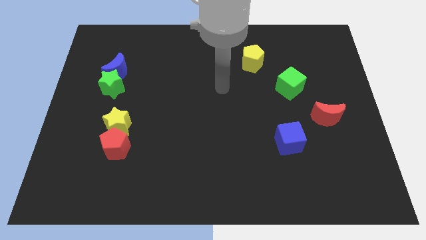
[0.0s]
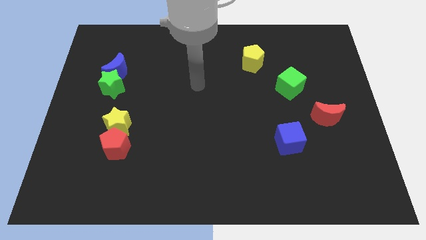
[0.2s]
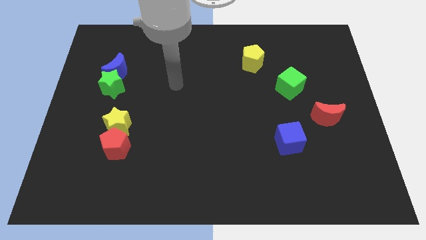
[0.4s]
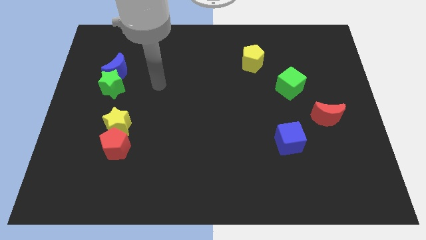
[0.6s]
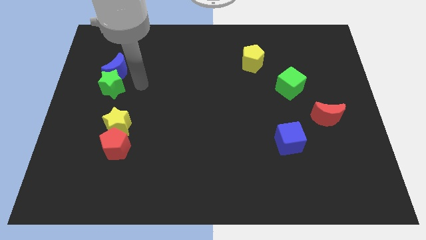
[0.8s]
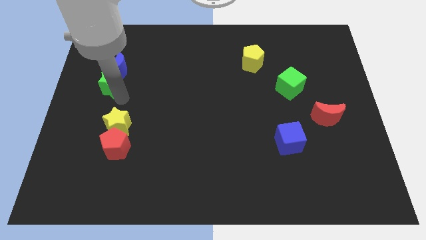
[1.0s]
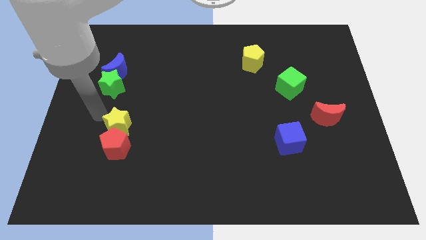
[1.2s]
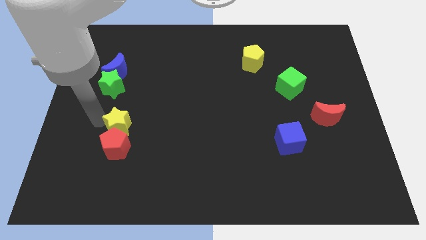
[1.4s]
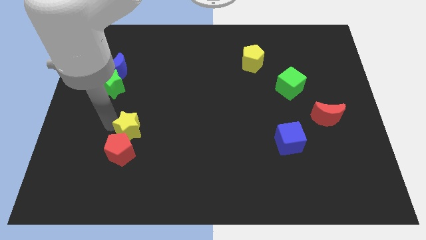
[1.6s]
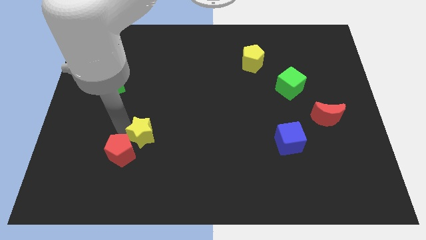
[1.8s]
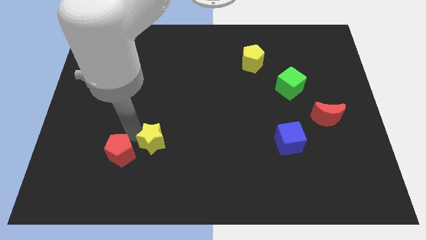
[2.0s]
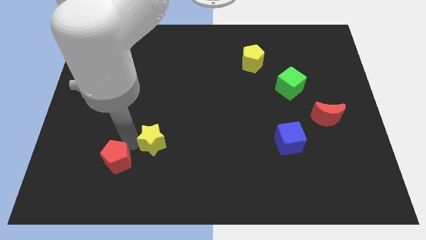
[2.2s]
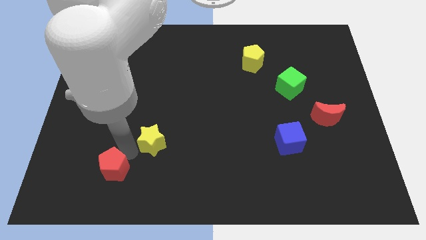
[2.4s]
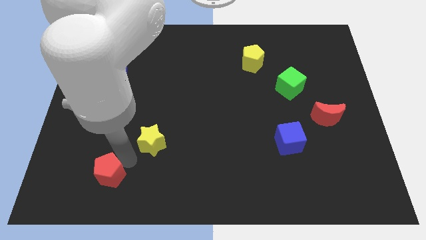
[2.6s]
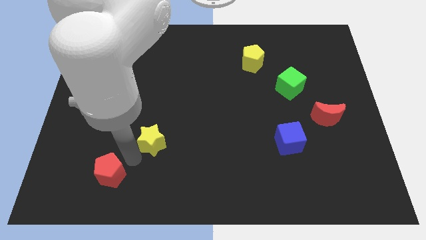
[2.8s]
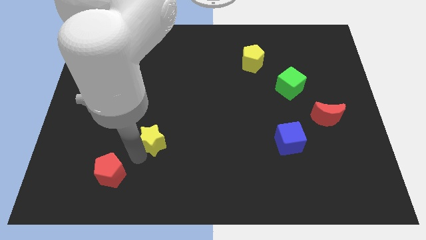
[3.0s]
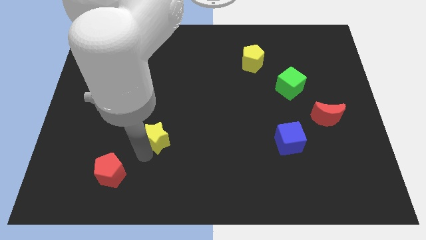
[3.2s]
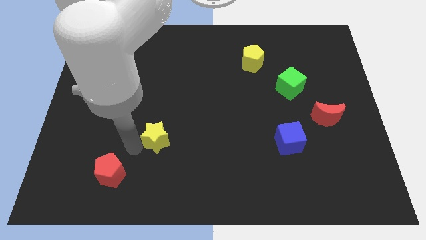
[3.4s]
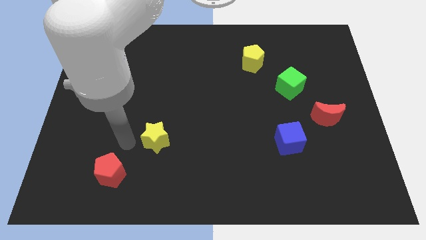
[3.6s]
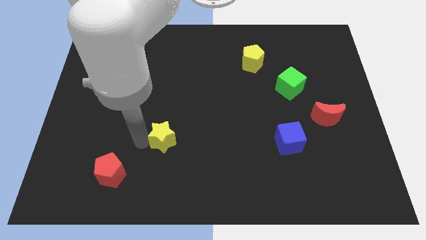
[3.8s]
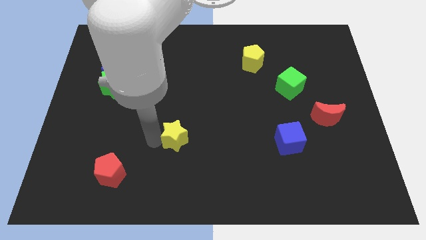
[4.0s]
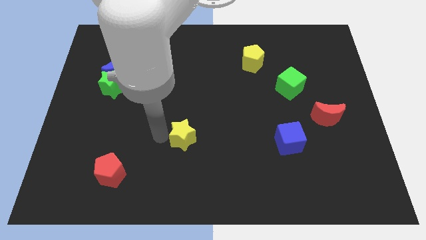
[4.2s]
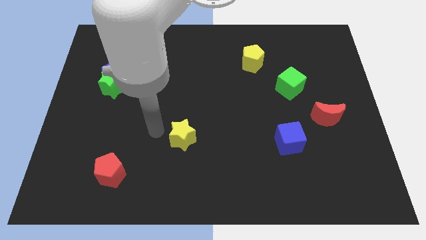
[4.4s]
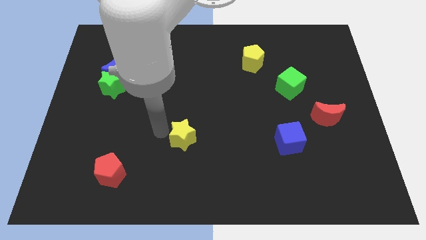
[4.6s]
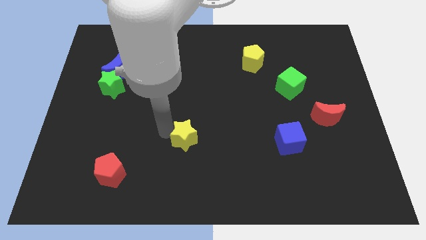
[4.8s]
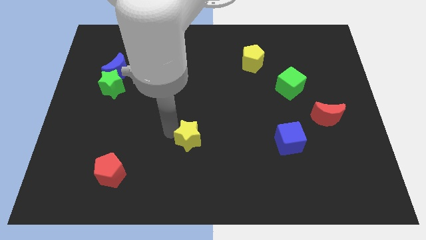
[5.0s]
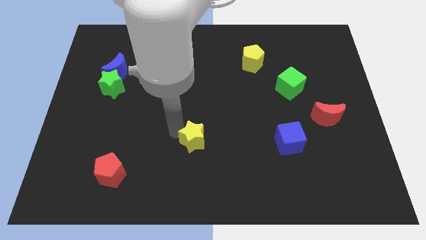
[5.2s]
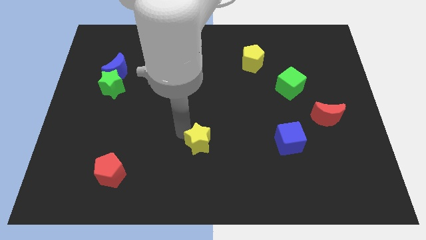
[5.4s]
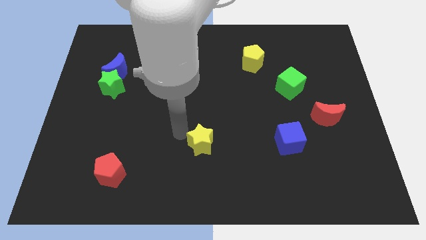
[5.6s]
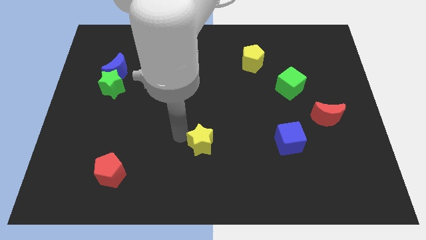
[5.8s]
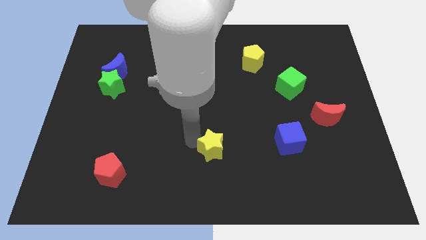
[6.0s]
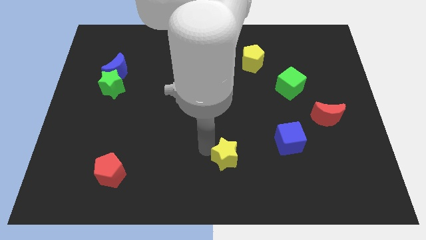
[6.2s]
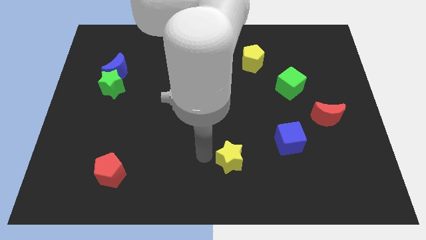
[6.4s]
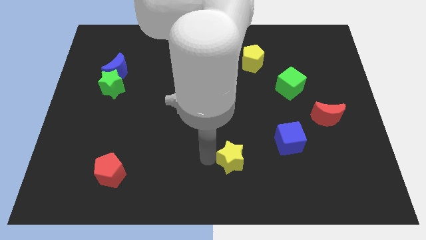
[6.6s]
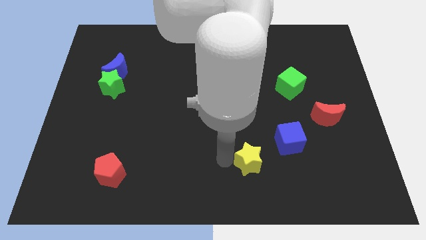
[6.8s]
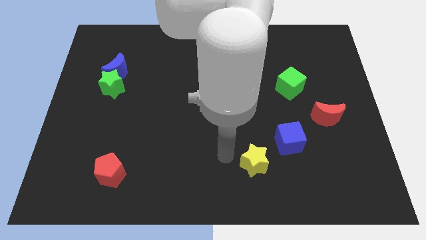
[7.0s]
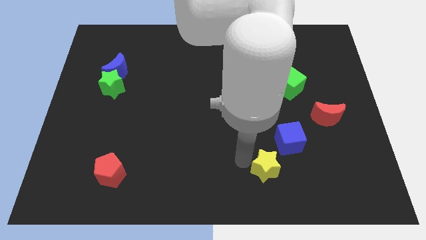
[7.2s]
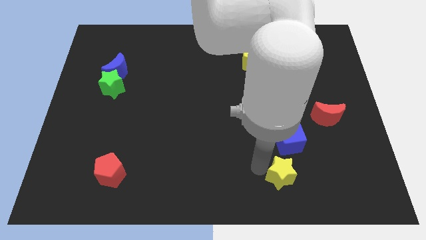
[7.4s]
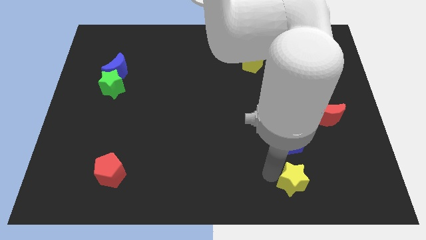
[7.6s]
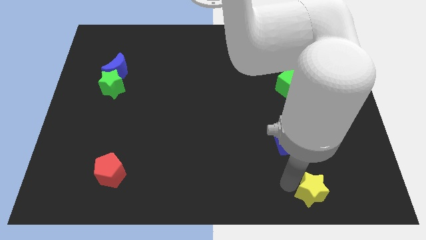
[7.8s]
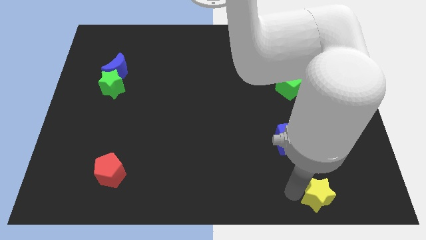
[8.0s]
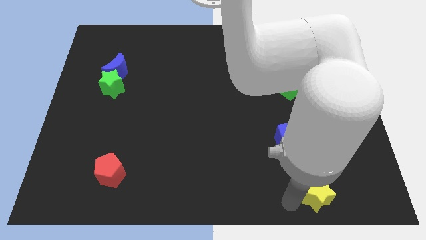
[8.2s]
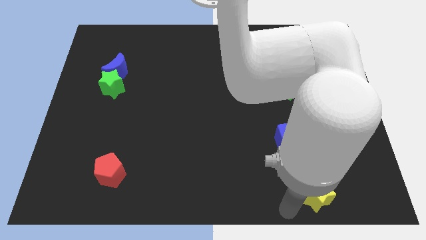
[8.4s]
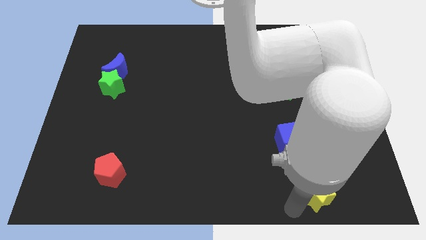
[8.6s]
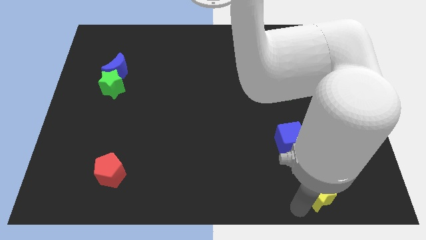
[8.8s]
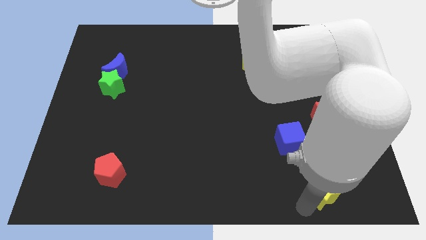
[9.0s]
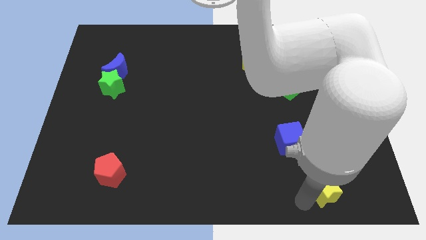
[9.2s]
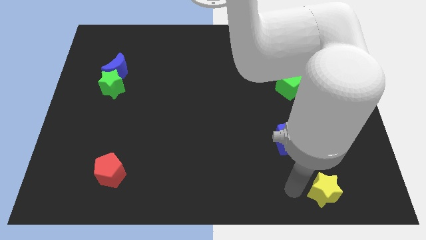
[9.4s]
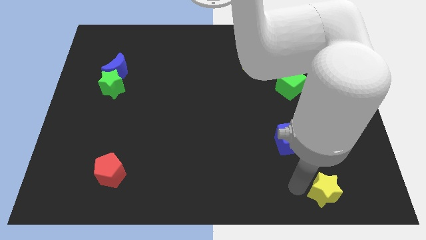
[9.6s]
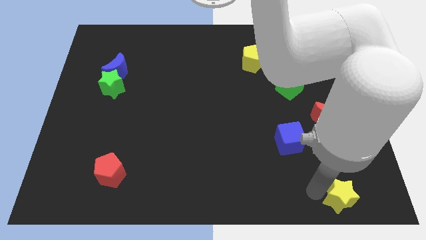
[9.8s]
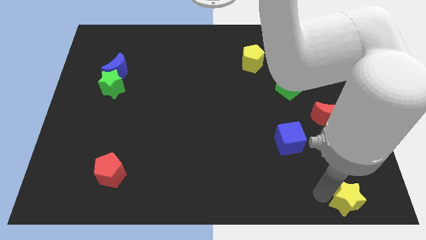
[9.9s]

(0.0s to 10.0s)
put the yellow star to the lower right corner

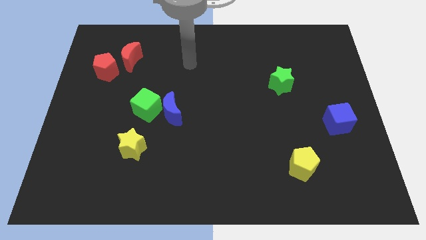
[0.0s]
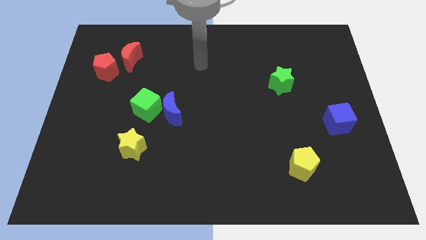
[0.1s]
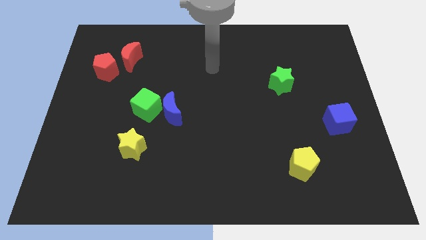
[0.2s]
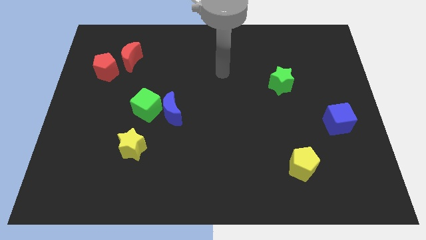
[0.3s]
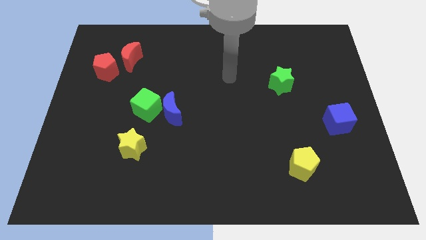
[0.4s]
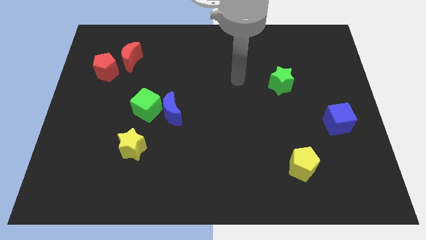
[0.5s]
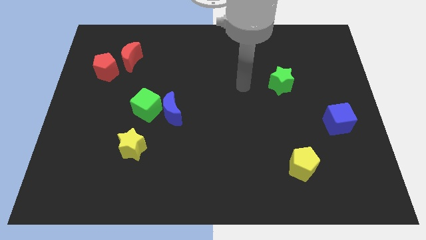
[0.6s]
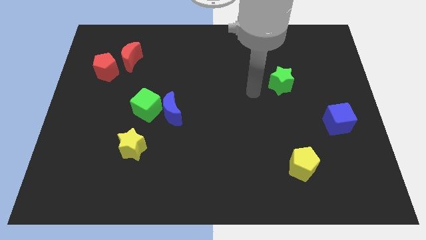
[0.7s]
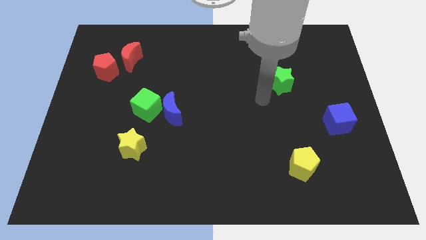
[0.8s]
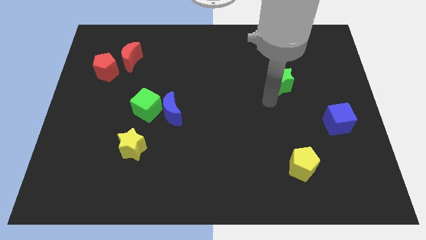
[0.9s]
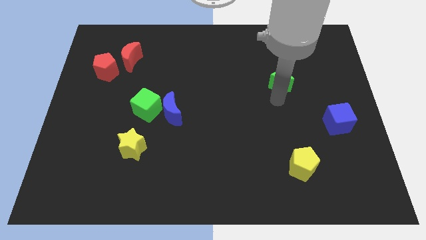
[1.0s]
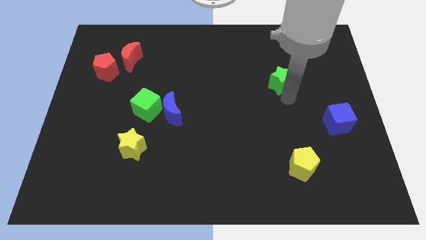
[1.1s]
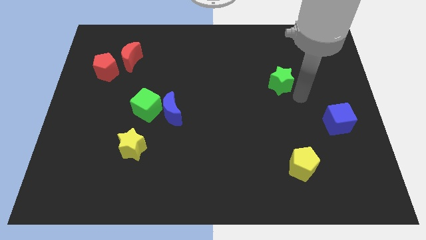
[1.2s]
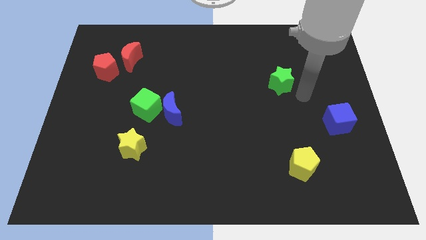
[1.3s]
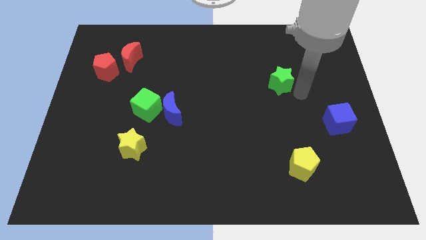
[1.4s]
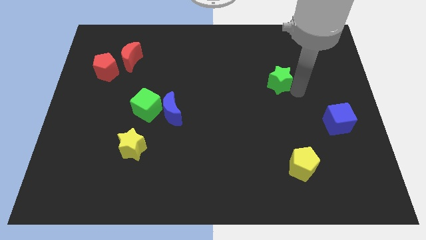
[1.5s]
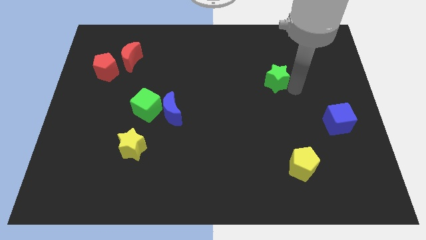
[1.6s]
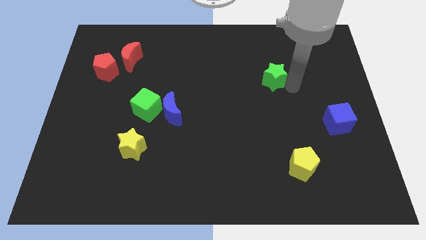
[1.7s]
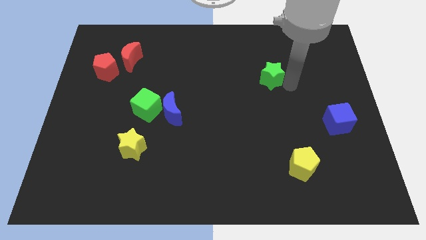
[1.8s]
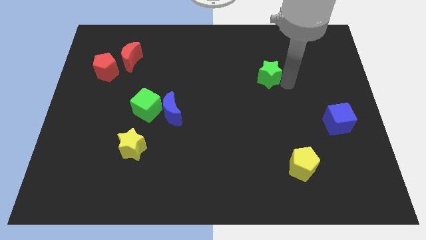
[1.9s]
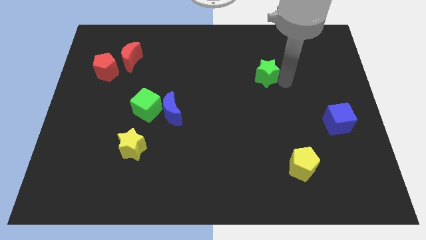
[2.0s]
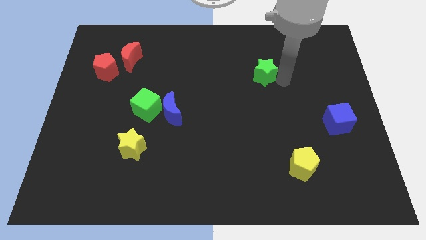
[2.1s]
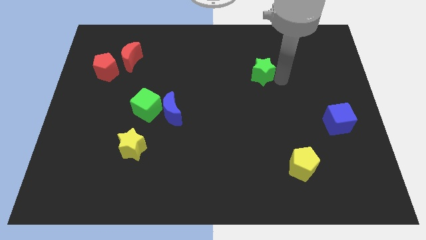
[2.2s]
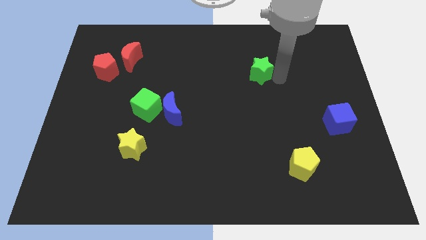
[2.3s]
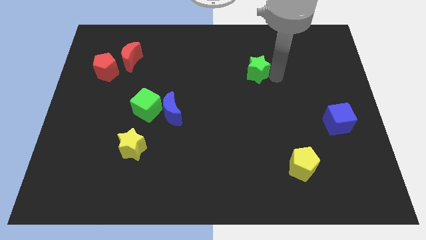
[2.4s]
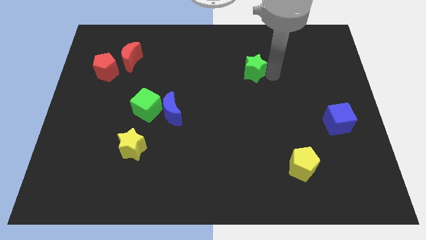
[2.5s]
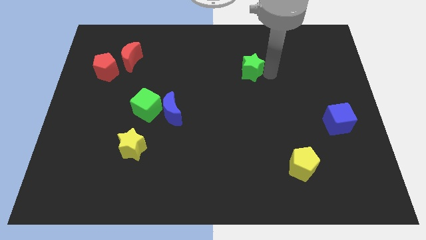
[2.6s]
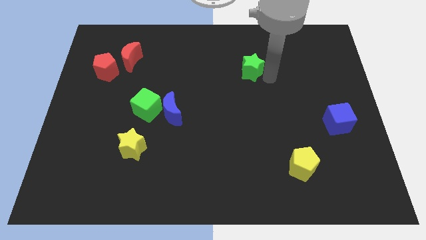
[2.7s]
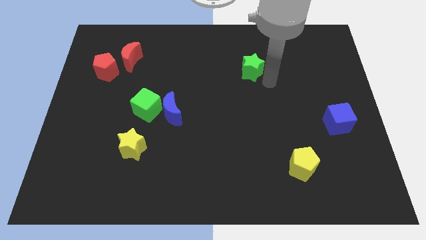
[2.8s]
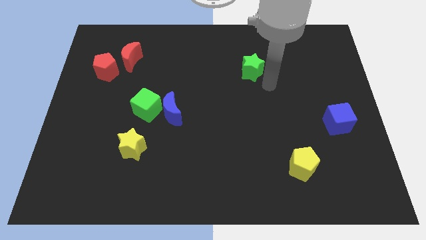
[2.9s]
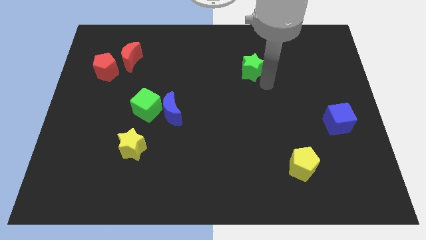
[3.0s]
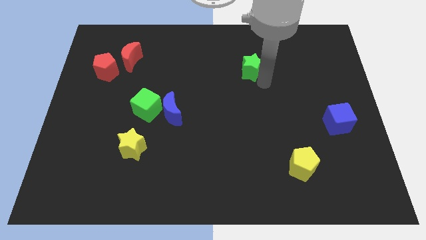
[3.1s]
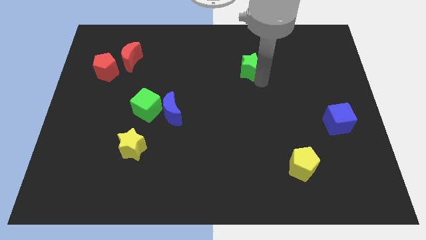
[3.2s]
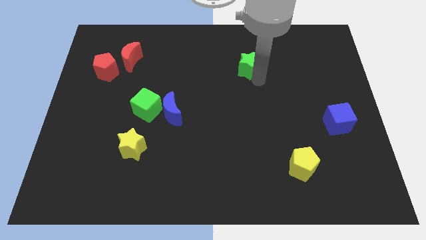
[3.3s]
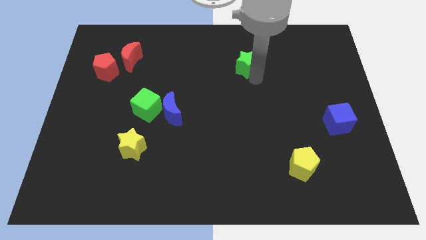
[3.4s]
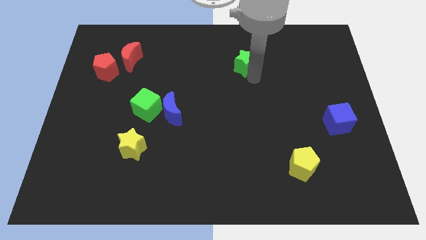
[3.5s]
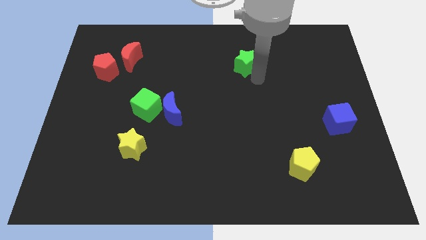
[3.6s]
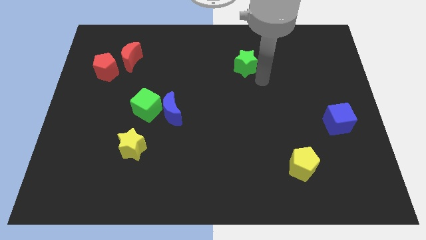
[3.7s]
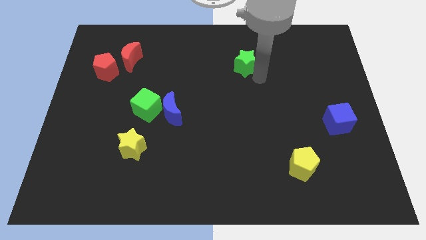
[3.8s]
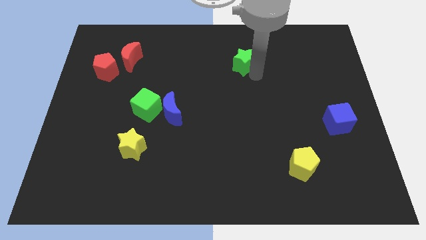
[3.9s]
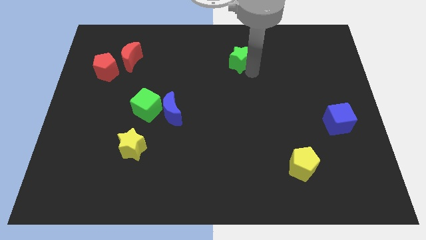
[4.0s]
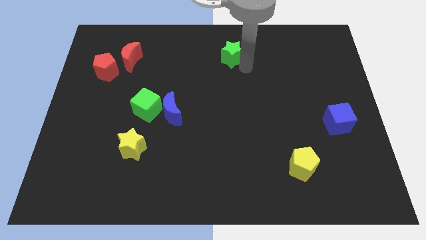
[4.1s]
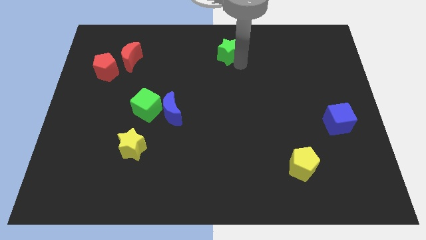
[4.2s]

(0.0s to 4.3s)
move the green star to the towards your base
